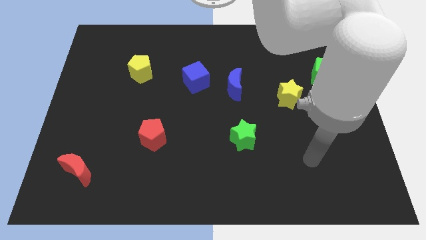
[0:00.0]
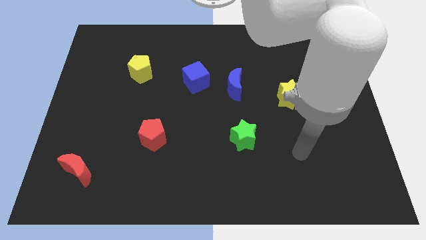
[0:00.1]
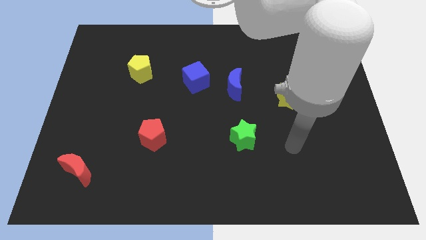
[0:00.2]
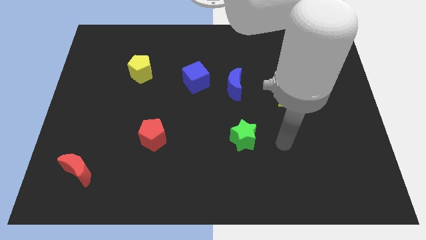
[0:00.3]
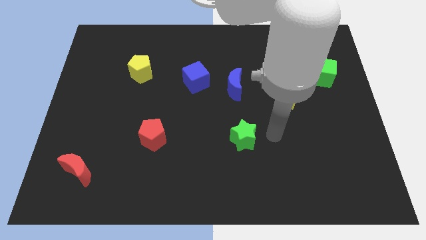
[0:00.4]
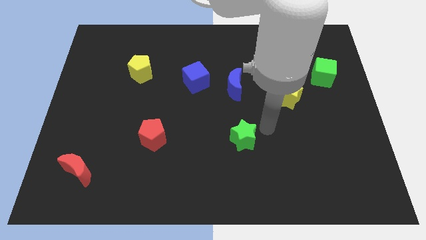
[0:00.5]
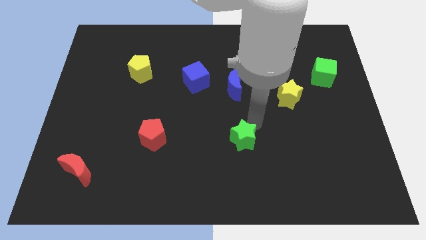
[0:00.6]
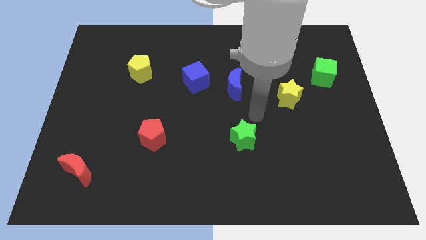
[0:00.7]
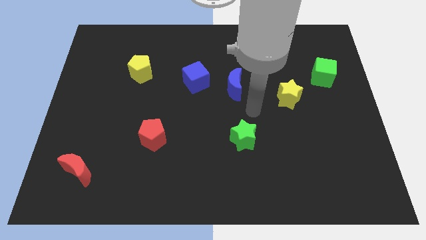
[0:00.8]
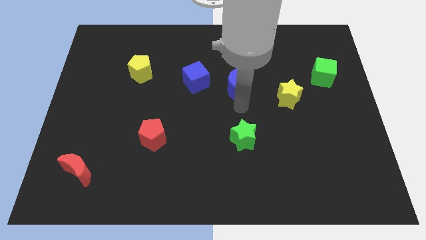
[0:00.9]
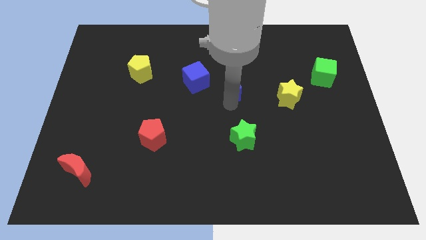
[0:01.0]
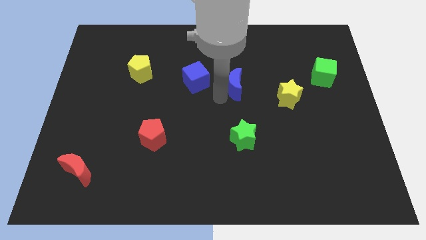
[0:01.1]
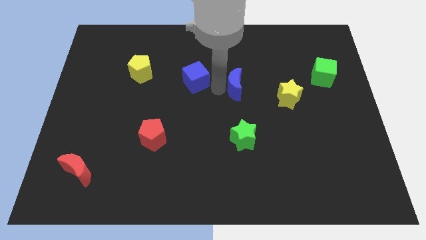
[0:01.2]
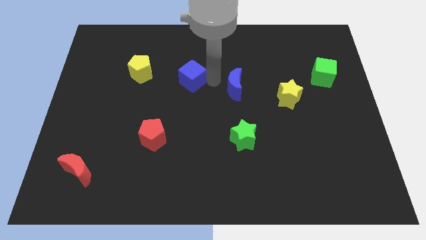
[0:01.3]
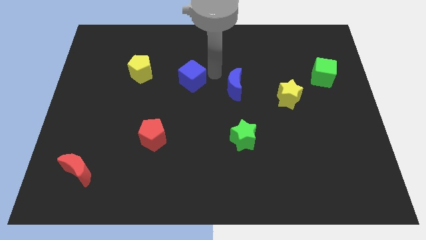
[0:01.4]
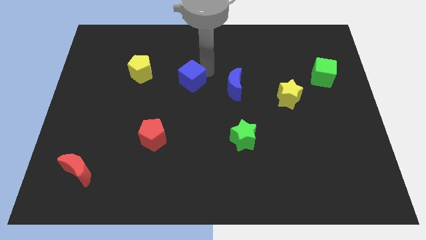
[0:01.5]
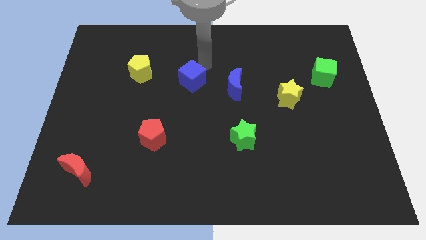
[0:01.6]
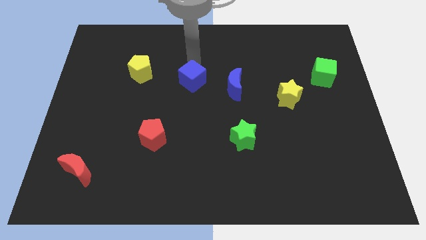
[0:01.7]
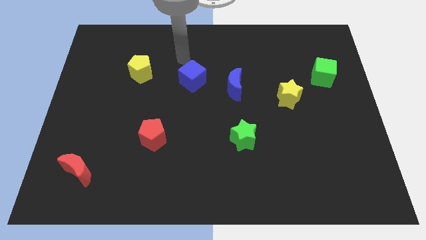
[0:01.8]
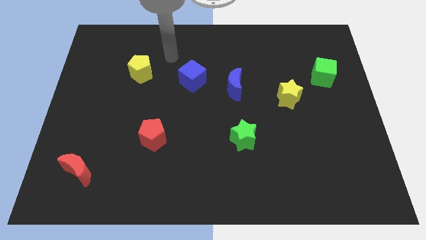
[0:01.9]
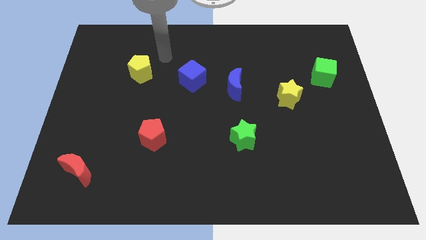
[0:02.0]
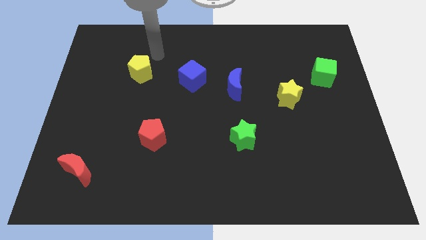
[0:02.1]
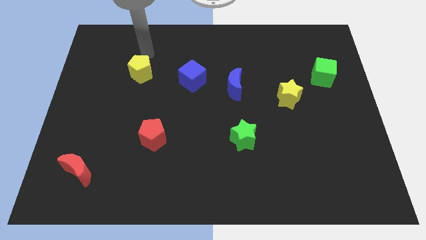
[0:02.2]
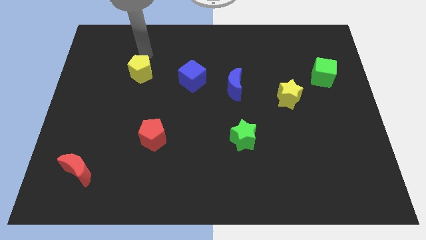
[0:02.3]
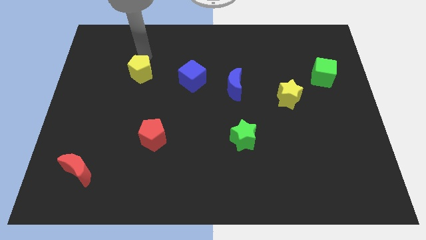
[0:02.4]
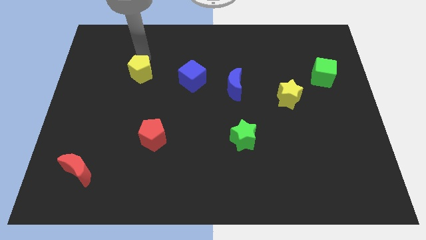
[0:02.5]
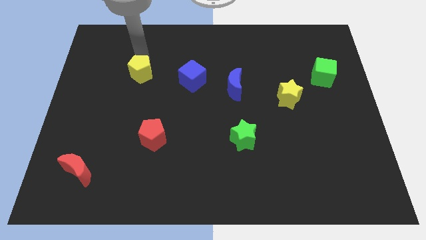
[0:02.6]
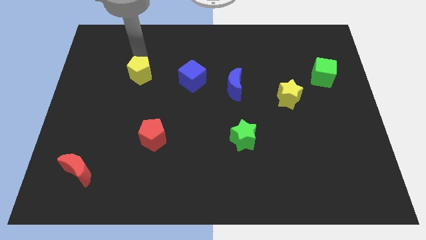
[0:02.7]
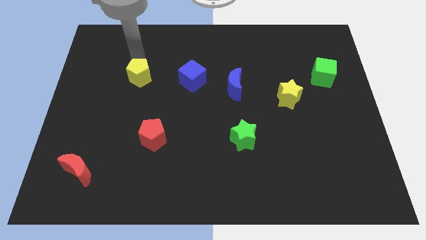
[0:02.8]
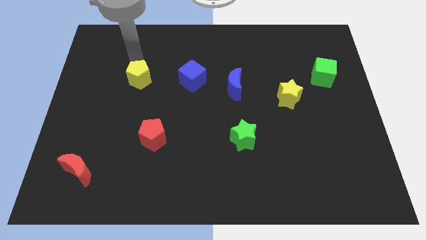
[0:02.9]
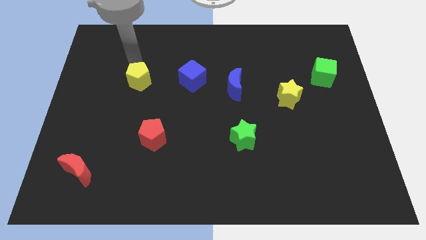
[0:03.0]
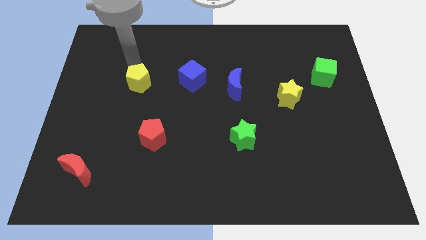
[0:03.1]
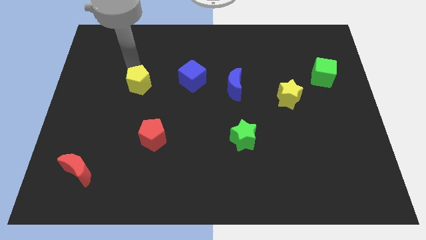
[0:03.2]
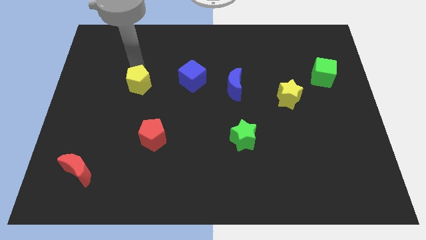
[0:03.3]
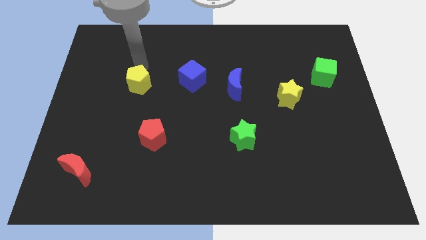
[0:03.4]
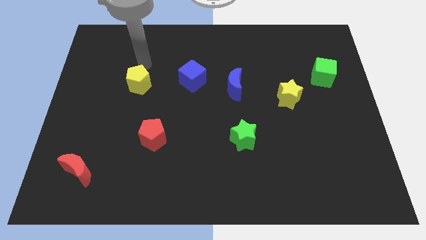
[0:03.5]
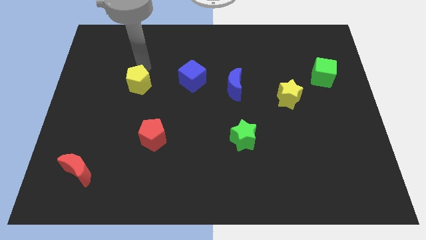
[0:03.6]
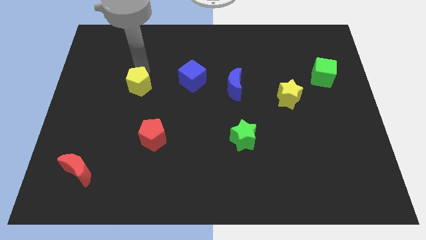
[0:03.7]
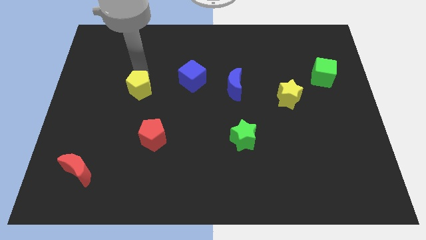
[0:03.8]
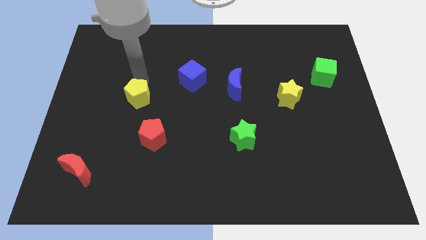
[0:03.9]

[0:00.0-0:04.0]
move the yellow pentagon downwards somewhat

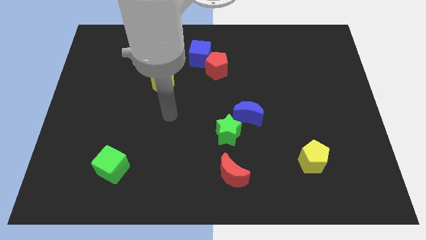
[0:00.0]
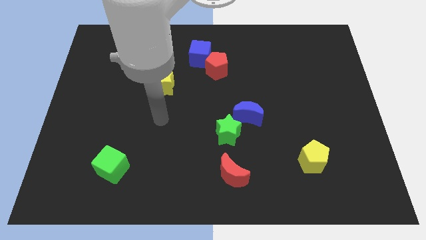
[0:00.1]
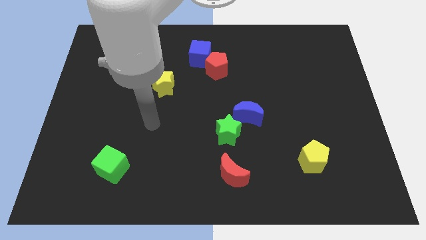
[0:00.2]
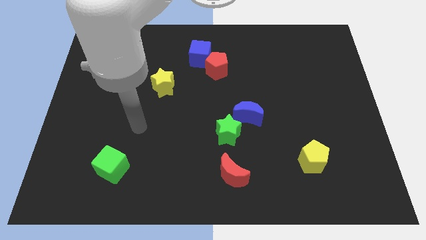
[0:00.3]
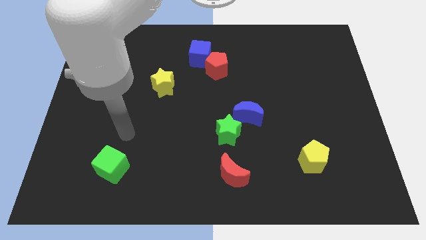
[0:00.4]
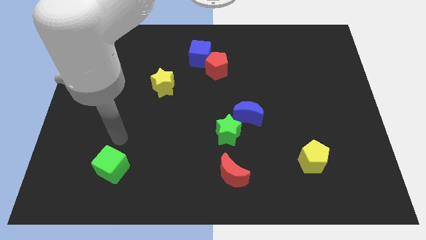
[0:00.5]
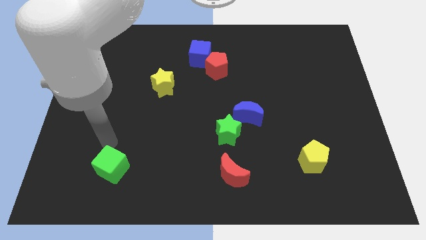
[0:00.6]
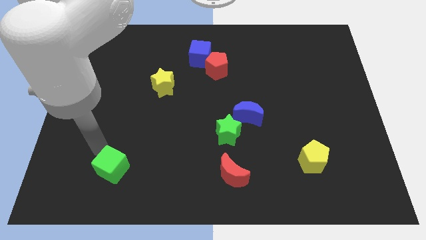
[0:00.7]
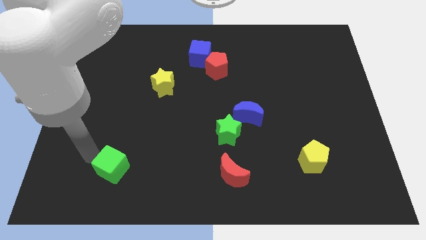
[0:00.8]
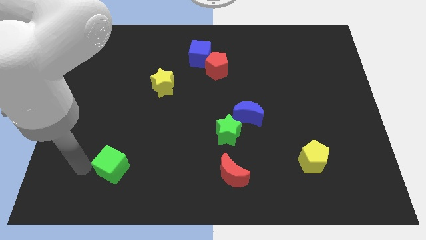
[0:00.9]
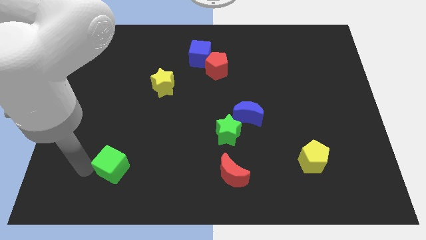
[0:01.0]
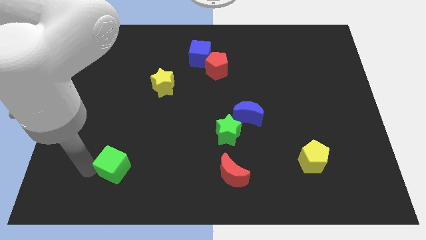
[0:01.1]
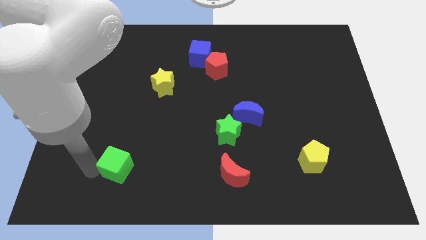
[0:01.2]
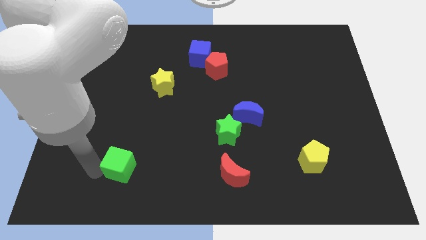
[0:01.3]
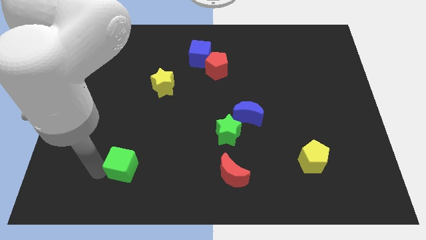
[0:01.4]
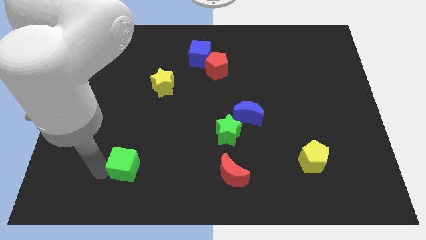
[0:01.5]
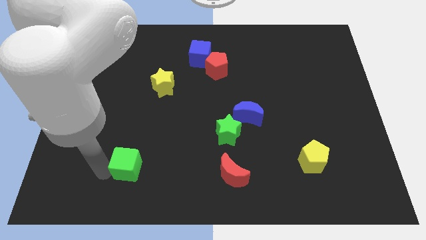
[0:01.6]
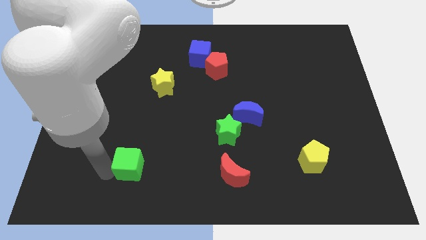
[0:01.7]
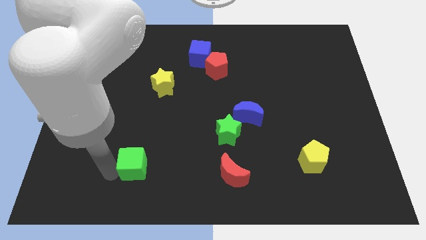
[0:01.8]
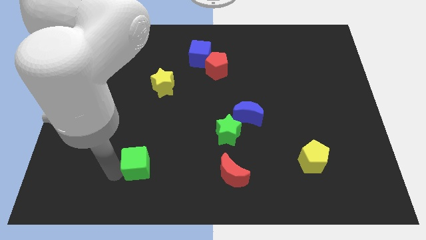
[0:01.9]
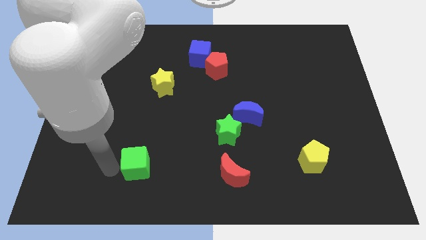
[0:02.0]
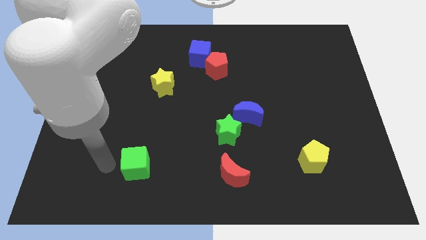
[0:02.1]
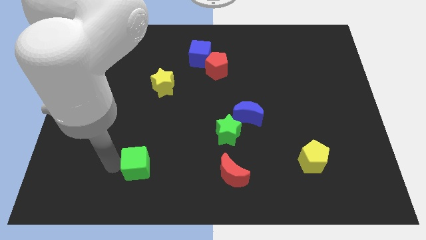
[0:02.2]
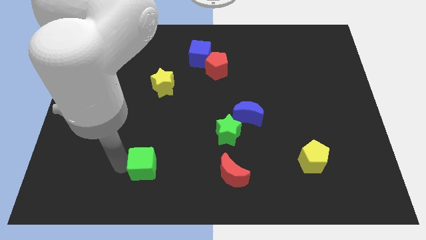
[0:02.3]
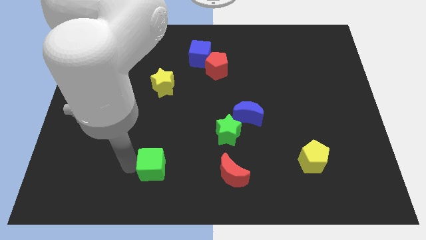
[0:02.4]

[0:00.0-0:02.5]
slide the green cube right a little bit

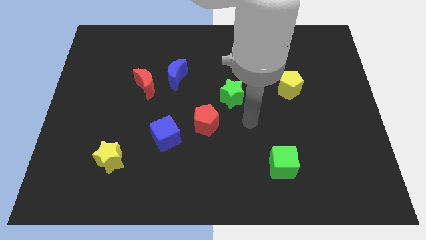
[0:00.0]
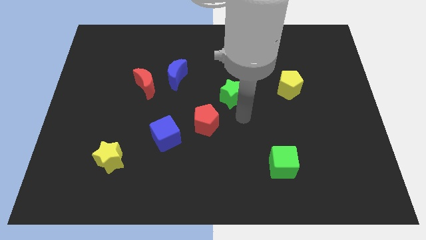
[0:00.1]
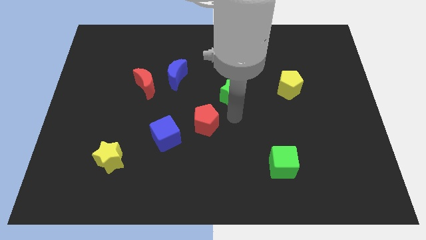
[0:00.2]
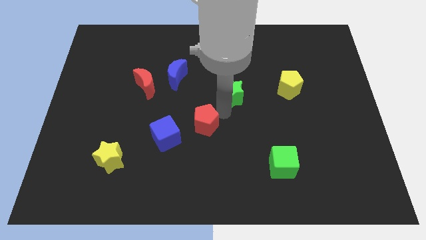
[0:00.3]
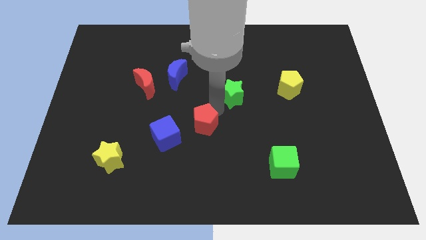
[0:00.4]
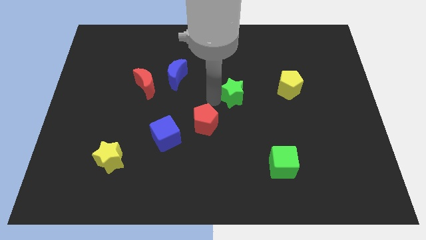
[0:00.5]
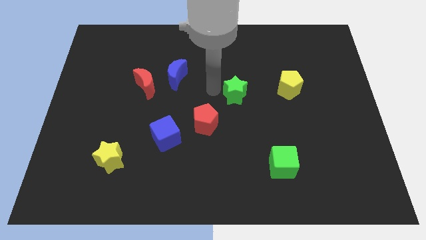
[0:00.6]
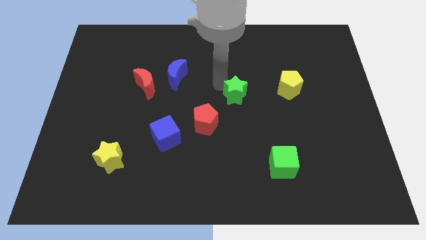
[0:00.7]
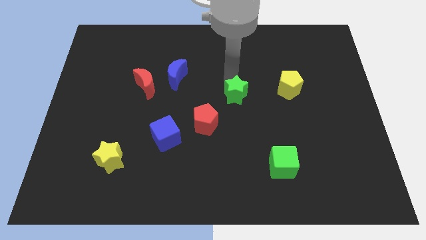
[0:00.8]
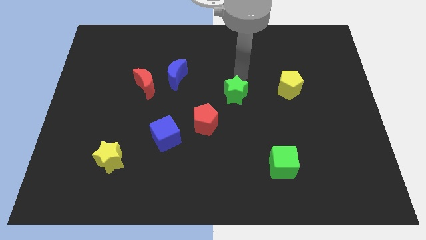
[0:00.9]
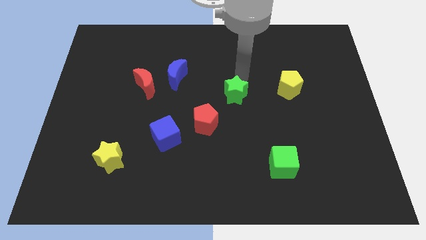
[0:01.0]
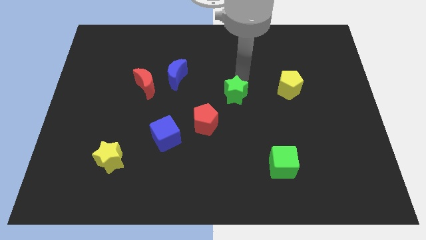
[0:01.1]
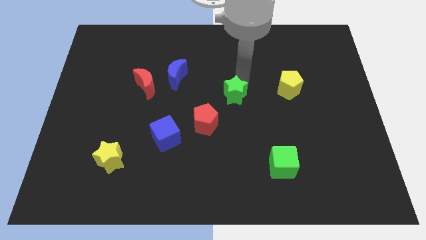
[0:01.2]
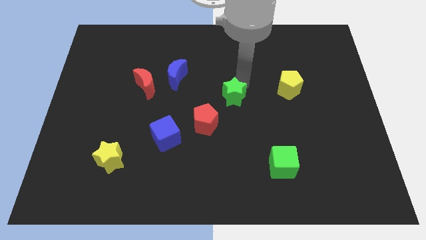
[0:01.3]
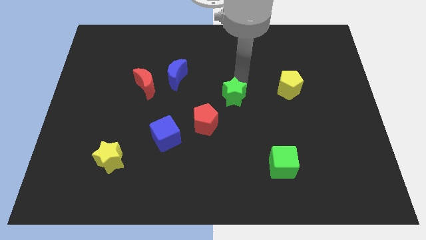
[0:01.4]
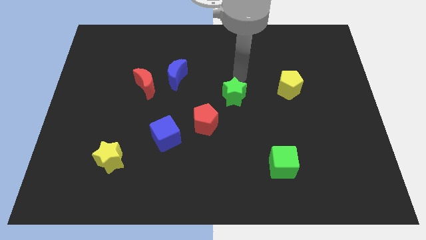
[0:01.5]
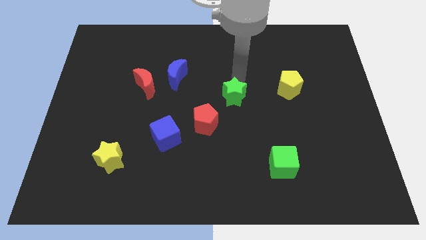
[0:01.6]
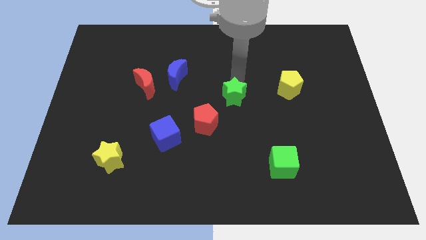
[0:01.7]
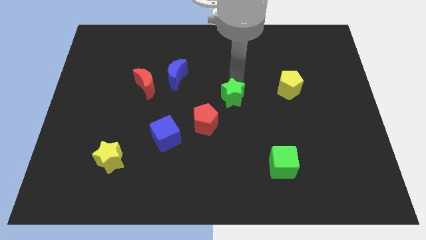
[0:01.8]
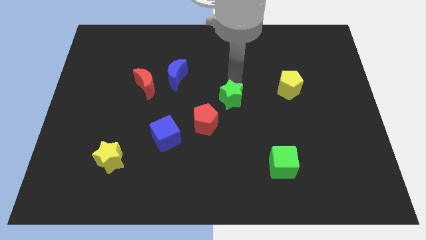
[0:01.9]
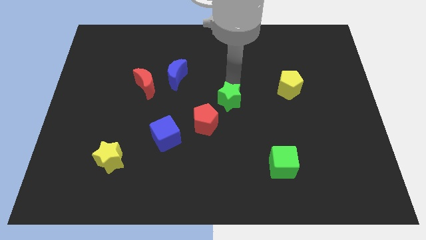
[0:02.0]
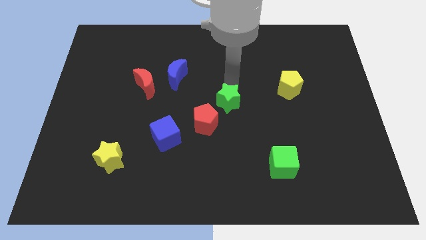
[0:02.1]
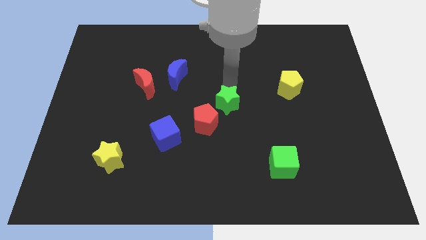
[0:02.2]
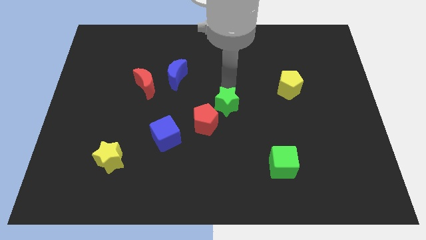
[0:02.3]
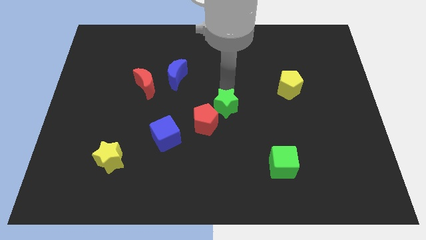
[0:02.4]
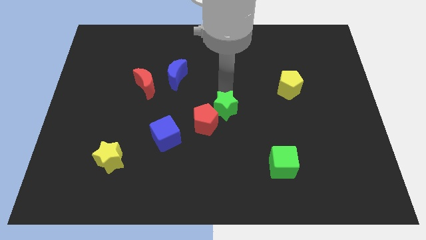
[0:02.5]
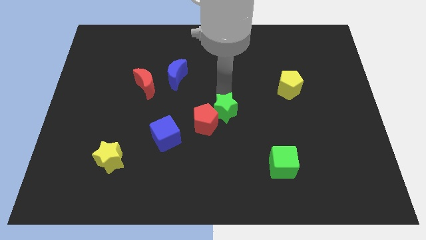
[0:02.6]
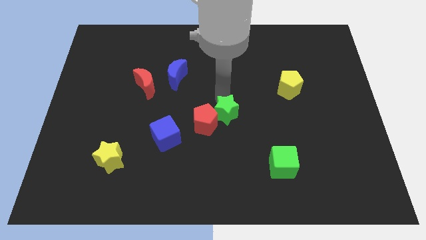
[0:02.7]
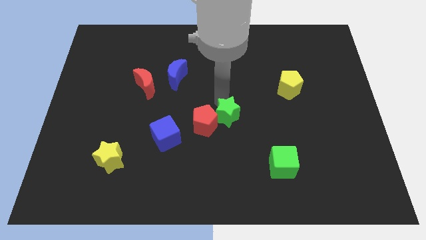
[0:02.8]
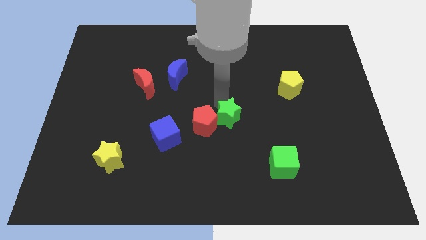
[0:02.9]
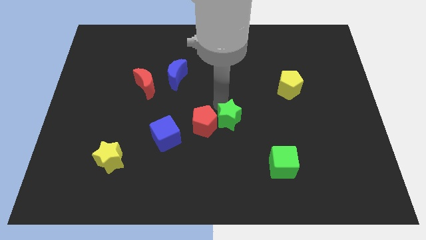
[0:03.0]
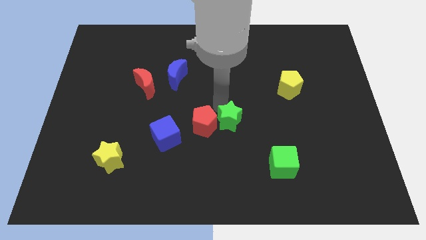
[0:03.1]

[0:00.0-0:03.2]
slightly move the green star down
